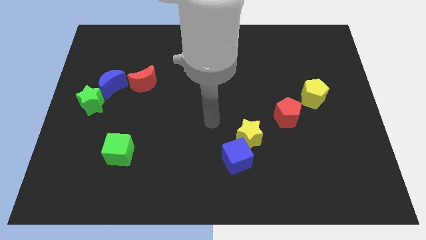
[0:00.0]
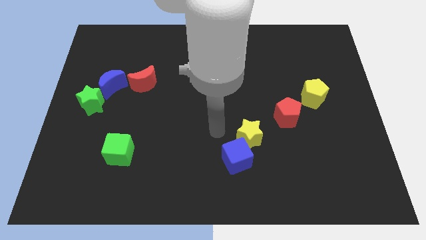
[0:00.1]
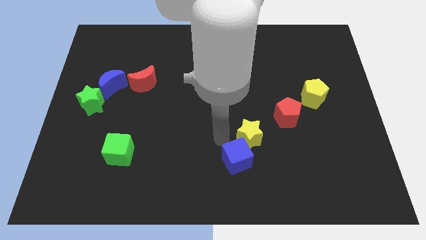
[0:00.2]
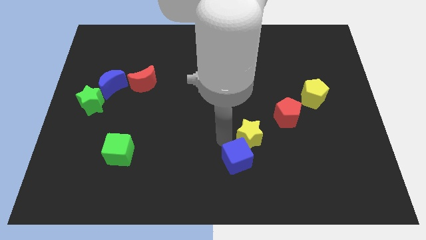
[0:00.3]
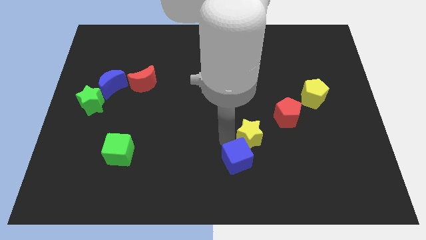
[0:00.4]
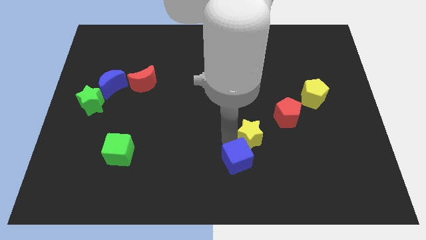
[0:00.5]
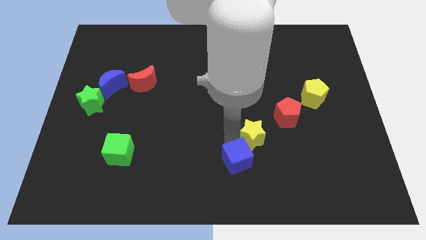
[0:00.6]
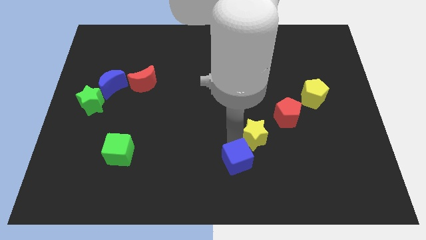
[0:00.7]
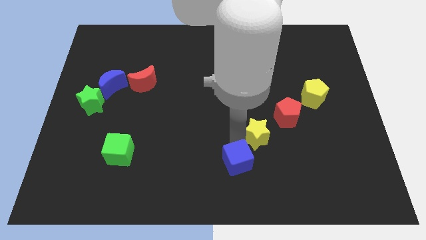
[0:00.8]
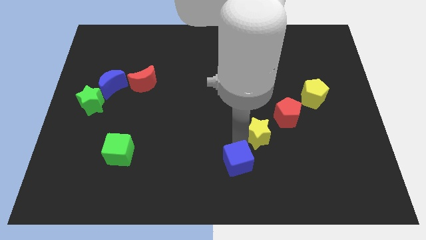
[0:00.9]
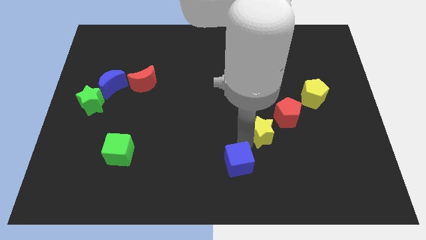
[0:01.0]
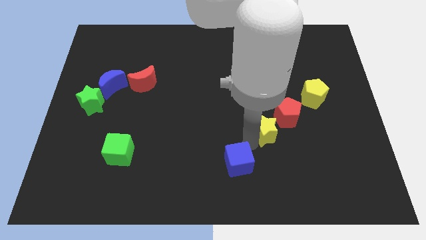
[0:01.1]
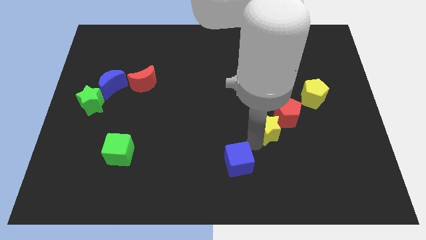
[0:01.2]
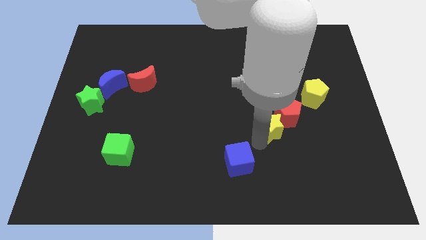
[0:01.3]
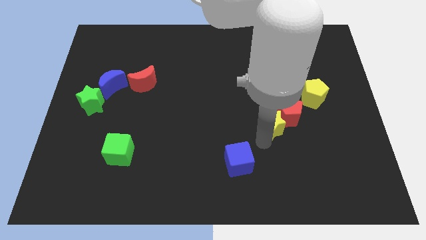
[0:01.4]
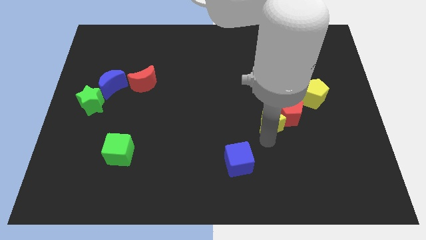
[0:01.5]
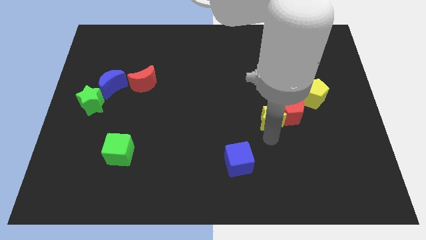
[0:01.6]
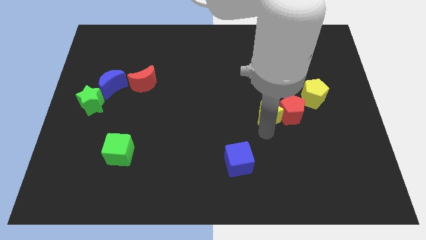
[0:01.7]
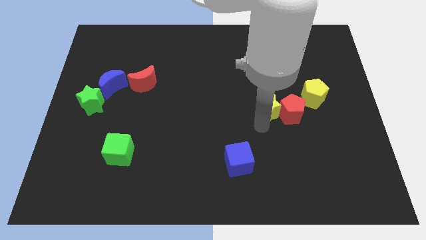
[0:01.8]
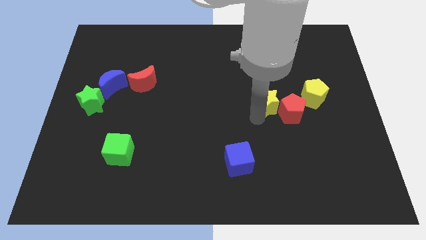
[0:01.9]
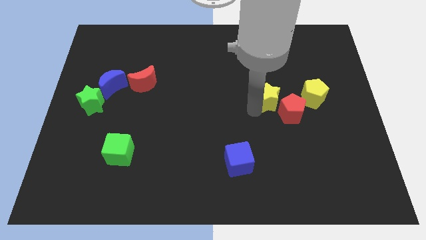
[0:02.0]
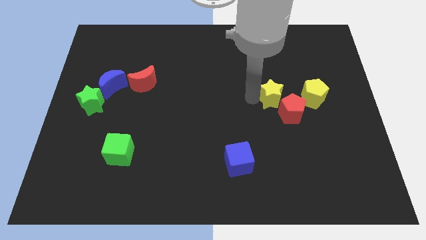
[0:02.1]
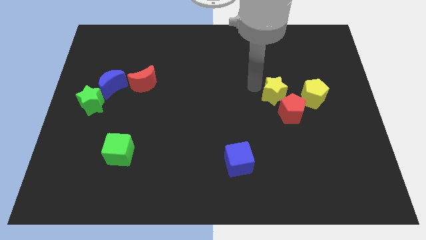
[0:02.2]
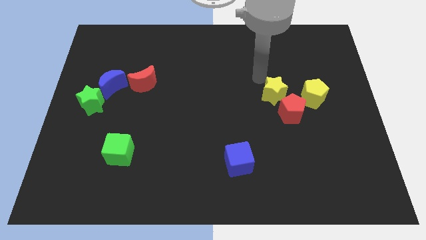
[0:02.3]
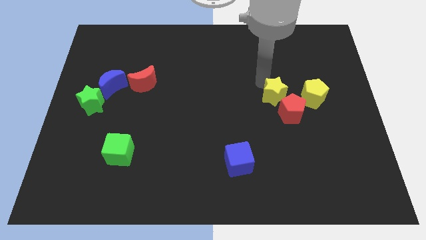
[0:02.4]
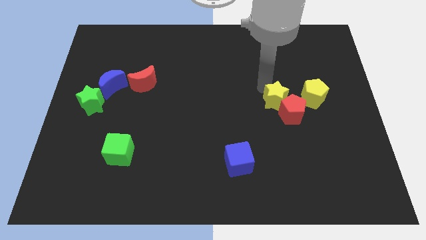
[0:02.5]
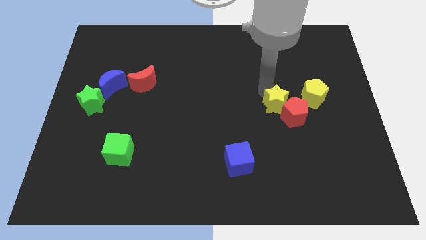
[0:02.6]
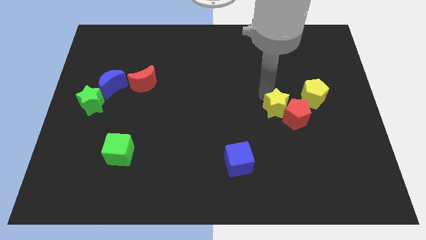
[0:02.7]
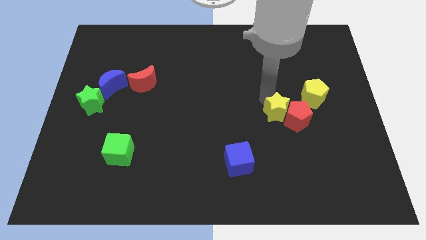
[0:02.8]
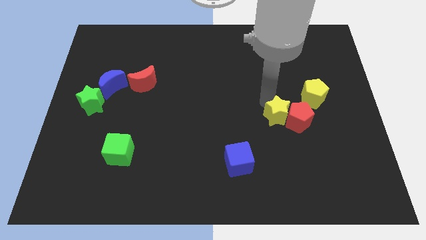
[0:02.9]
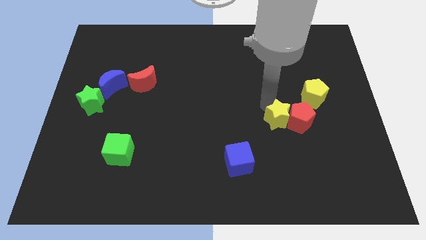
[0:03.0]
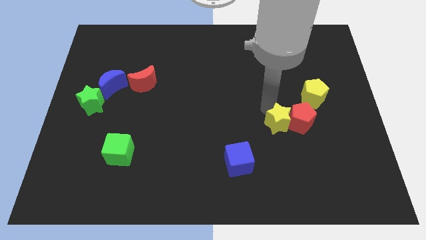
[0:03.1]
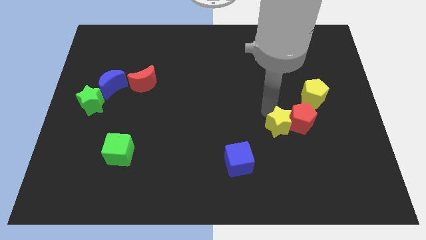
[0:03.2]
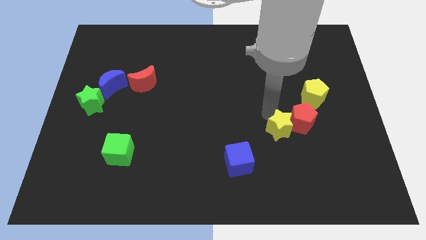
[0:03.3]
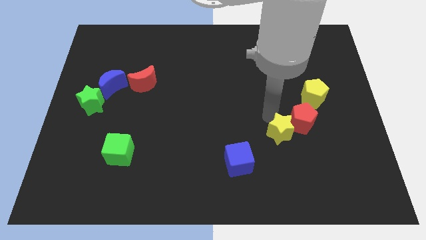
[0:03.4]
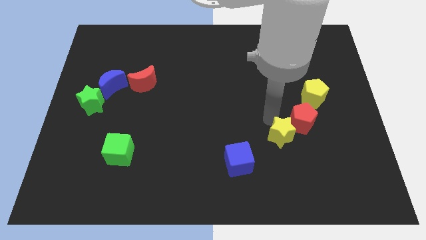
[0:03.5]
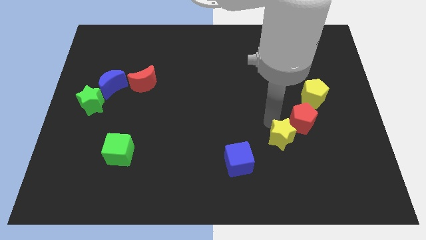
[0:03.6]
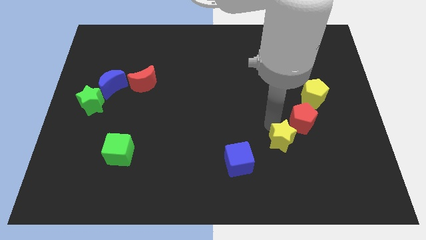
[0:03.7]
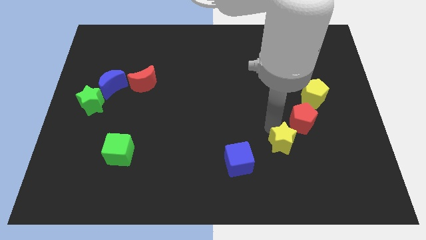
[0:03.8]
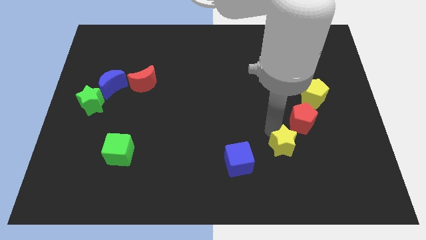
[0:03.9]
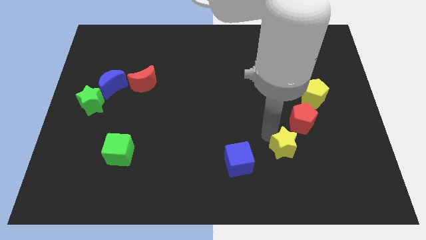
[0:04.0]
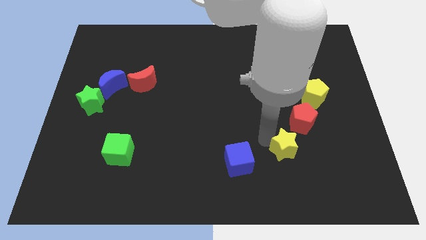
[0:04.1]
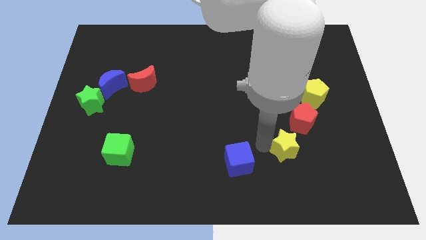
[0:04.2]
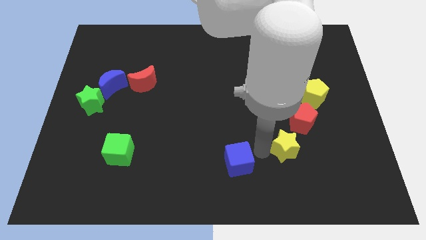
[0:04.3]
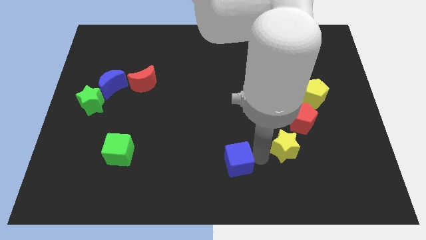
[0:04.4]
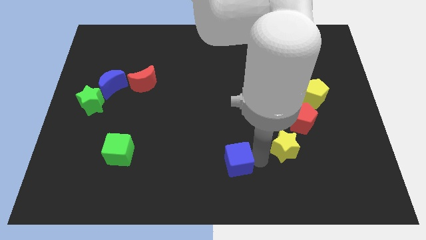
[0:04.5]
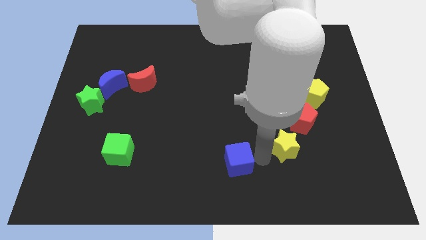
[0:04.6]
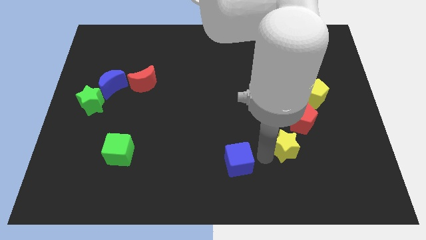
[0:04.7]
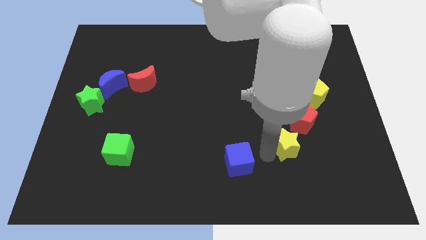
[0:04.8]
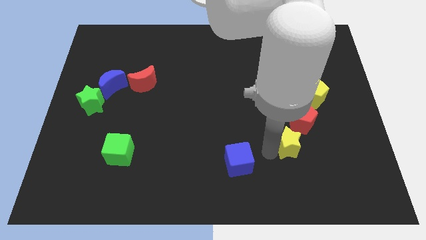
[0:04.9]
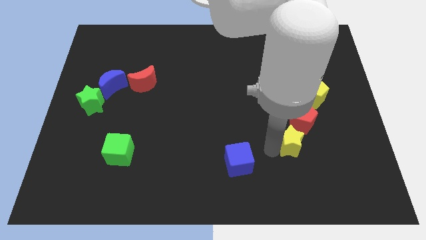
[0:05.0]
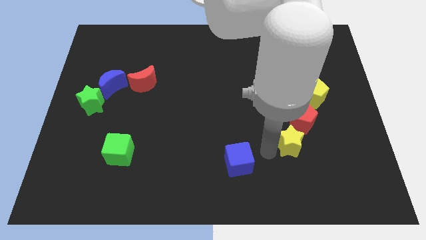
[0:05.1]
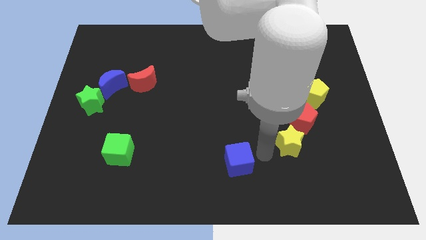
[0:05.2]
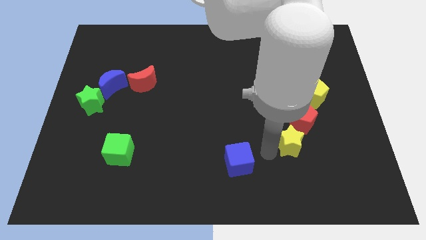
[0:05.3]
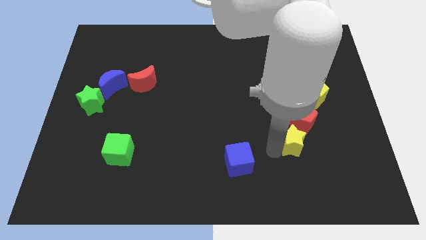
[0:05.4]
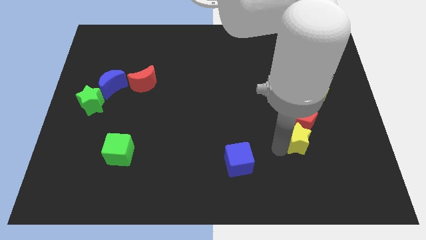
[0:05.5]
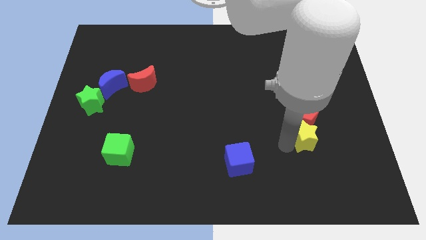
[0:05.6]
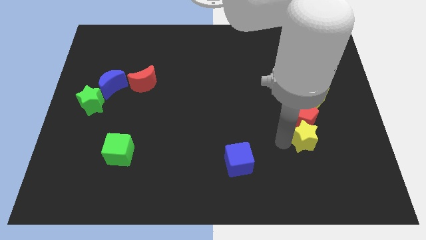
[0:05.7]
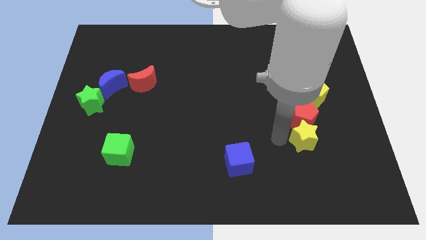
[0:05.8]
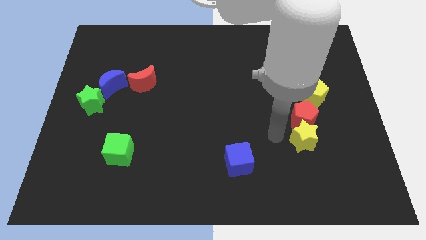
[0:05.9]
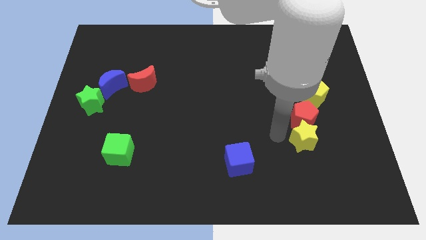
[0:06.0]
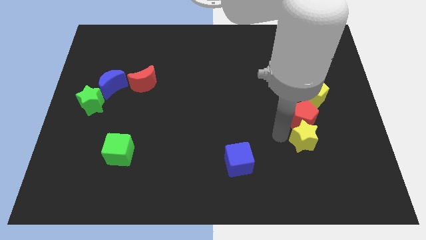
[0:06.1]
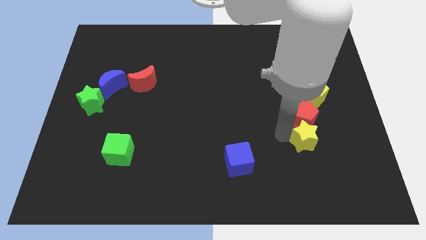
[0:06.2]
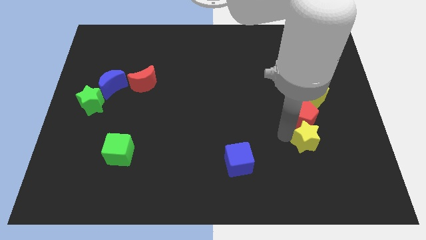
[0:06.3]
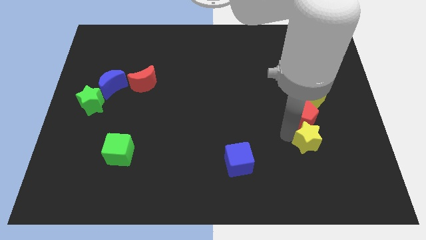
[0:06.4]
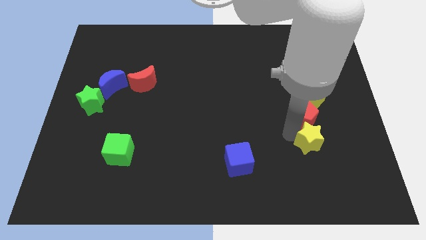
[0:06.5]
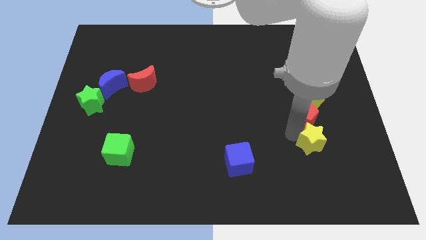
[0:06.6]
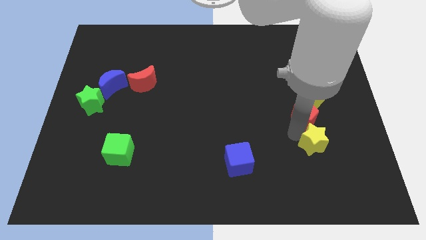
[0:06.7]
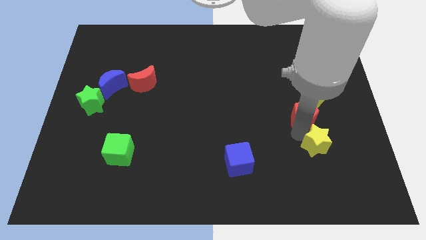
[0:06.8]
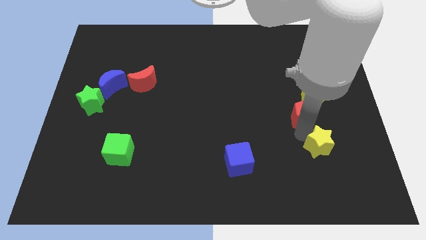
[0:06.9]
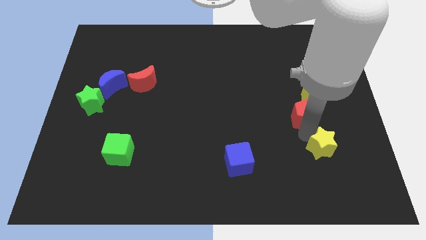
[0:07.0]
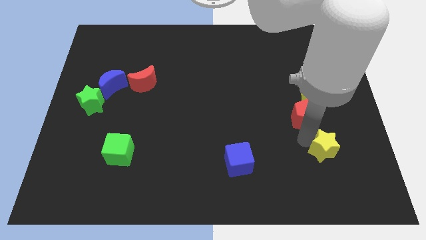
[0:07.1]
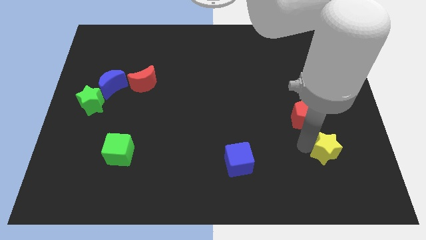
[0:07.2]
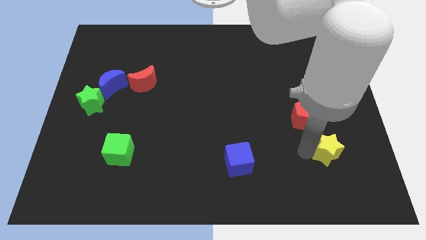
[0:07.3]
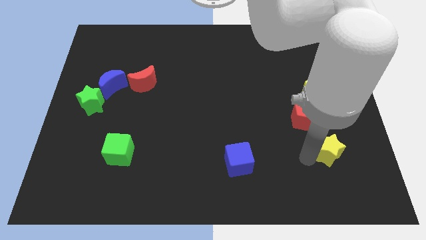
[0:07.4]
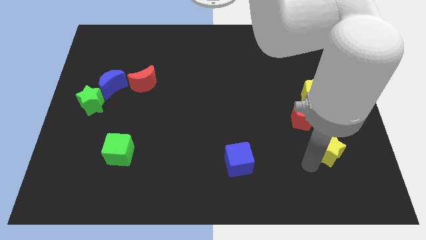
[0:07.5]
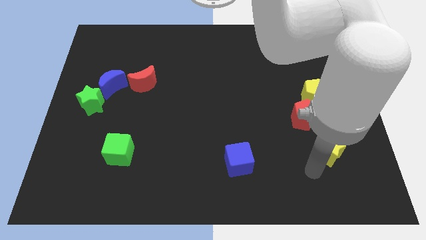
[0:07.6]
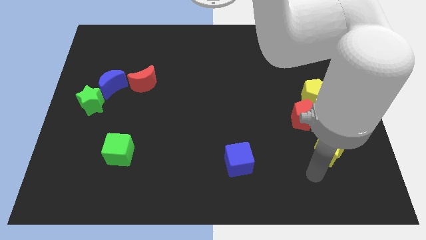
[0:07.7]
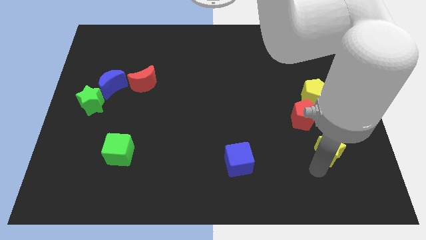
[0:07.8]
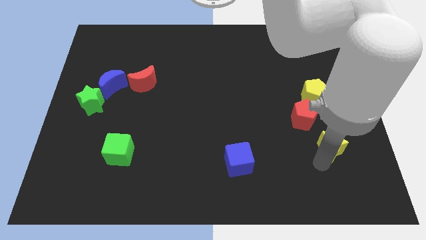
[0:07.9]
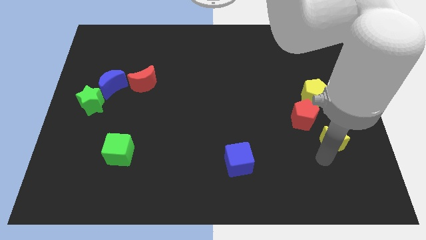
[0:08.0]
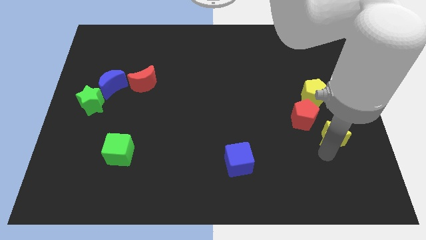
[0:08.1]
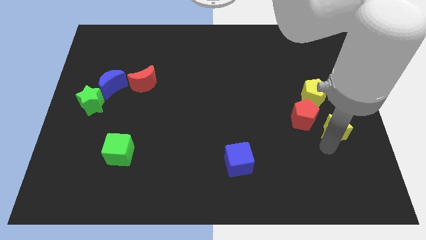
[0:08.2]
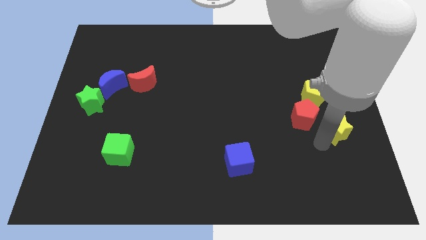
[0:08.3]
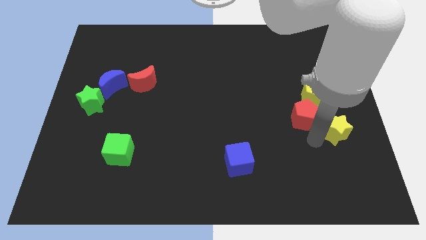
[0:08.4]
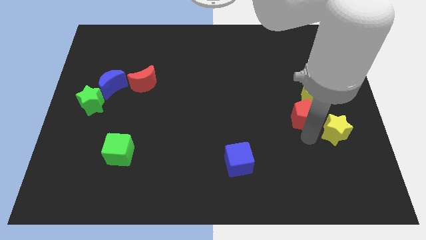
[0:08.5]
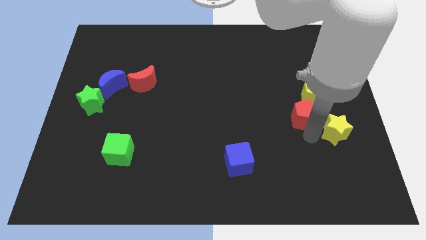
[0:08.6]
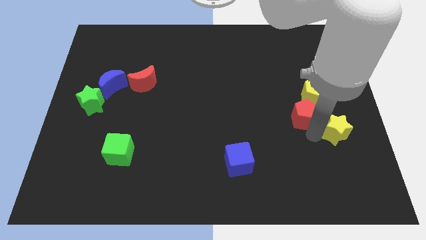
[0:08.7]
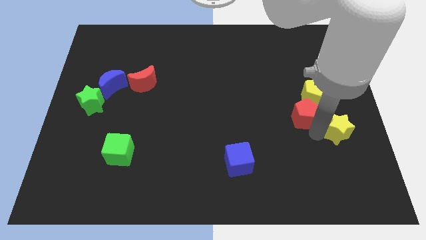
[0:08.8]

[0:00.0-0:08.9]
push the yellow star to the center right
